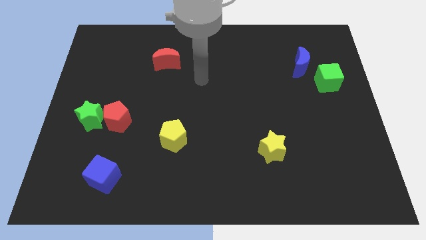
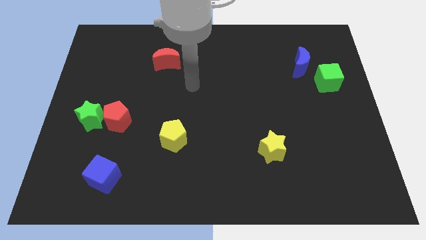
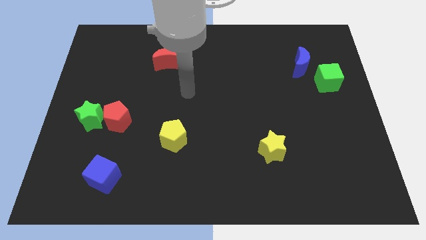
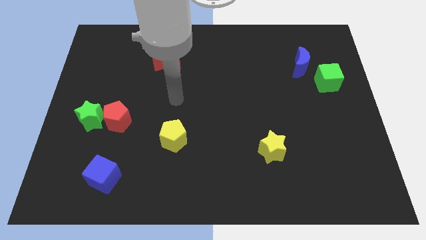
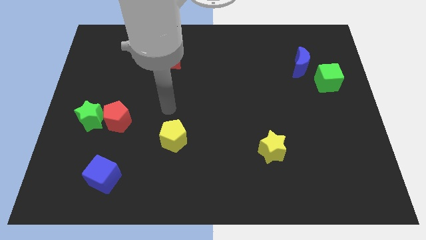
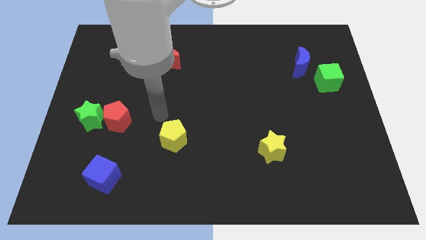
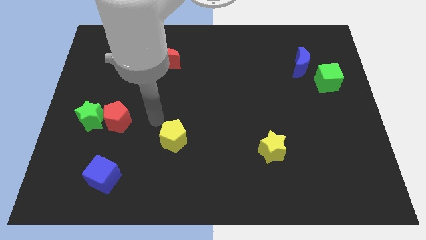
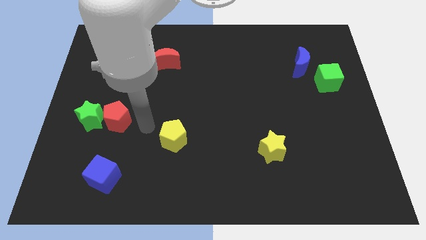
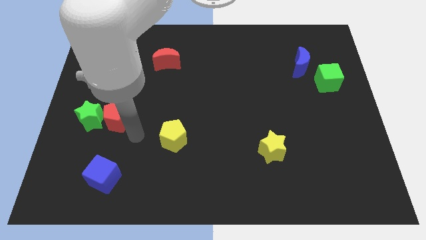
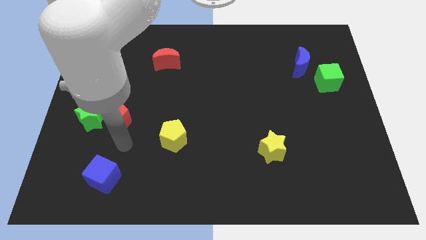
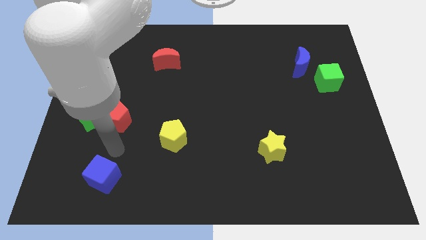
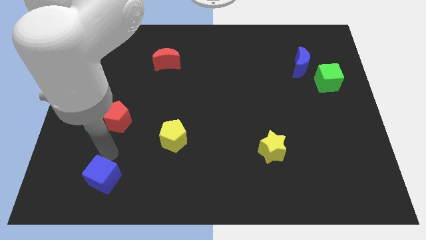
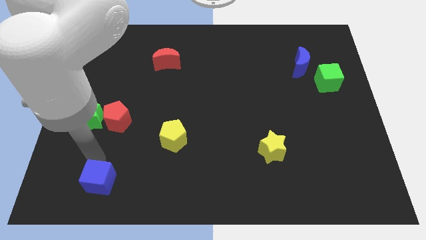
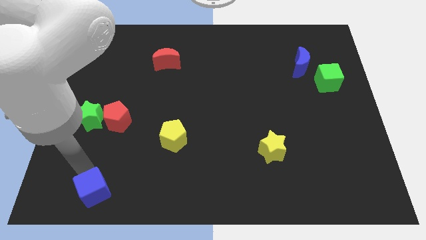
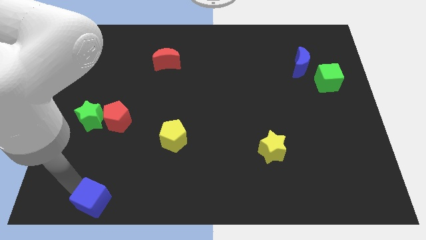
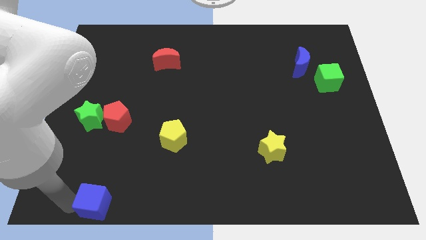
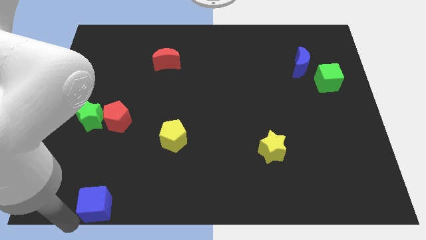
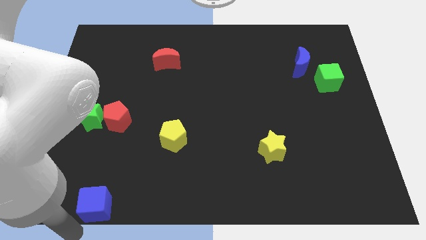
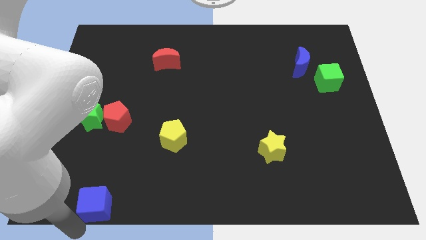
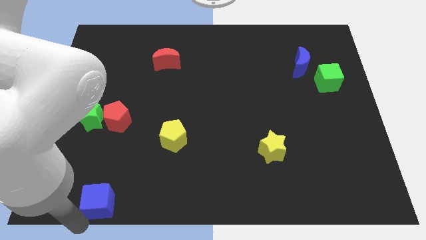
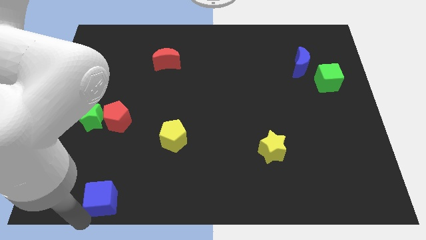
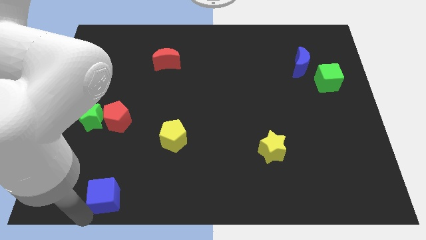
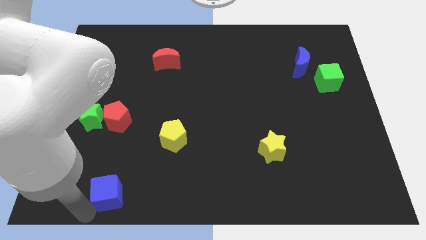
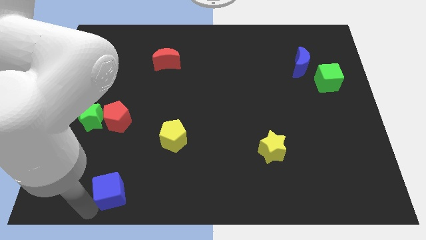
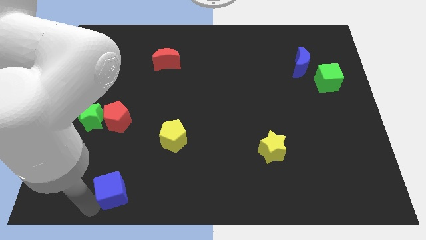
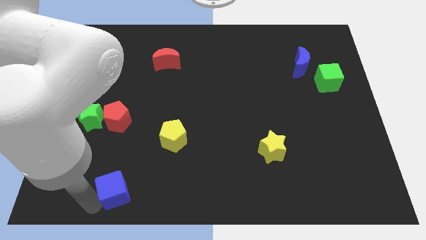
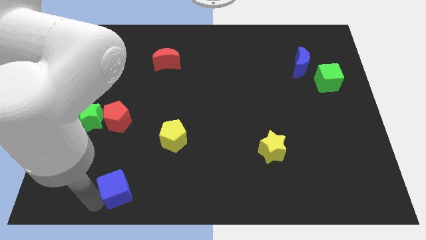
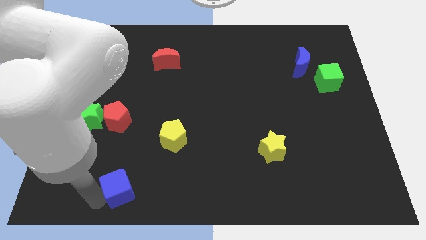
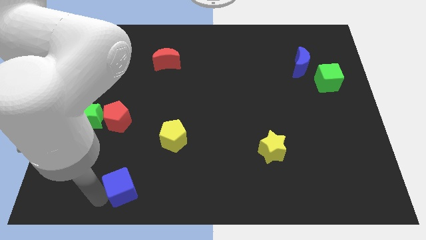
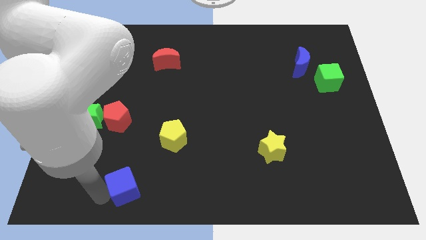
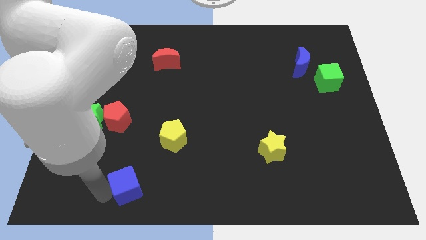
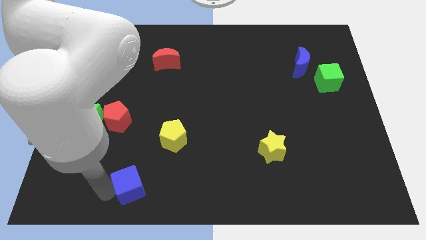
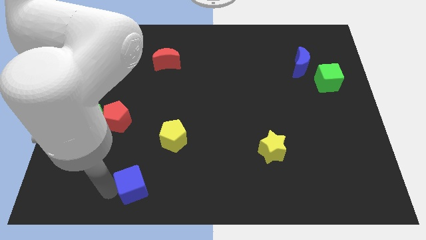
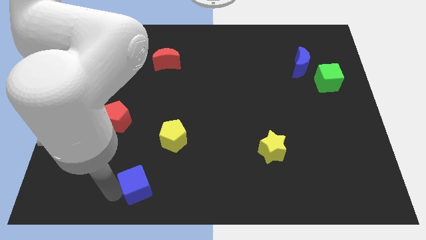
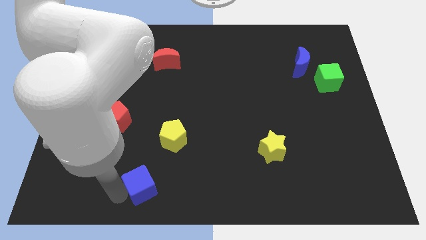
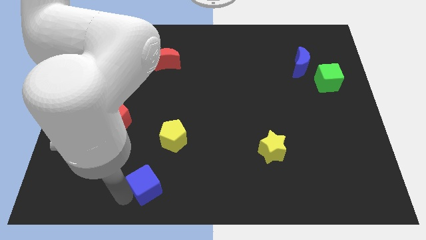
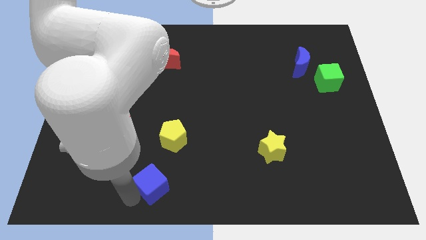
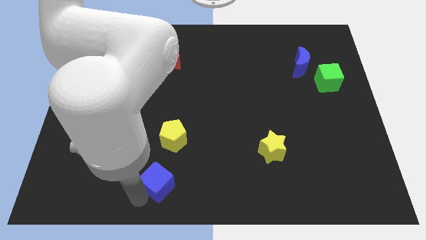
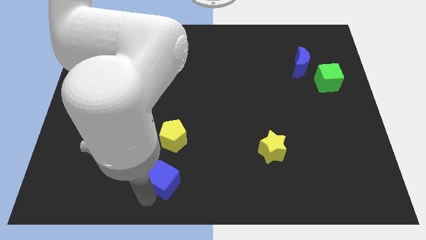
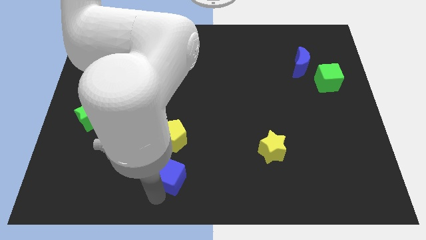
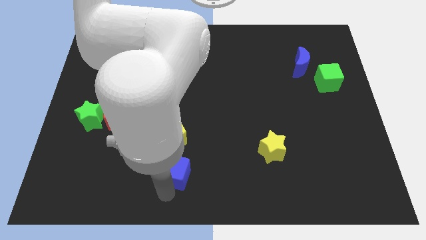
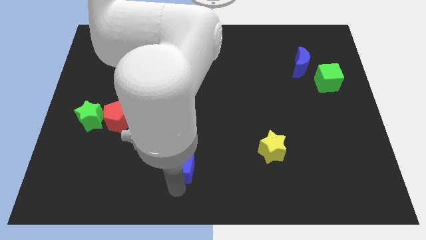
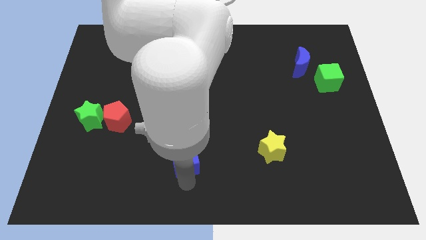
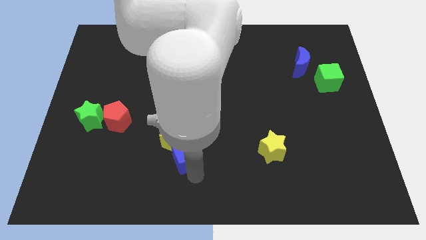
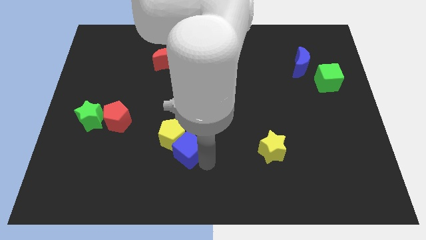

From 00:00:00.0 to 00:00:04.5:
move the blue cube to the right side of the yellow pentagon

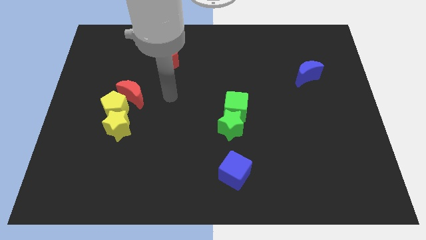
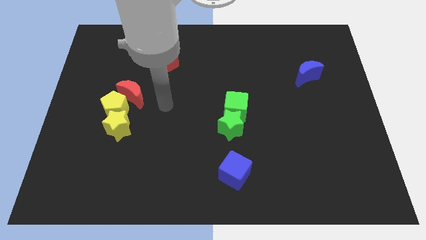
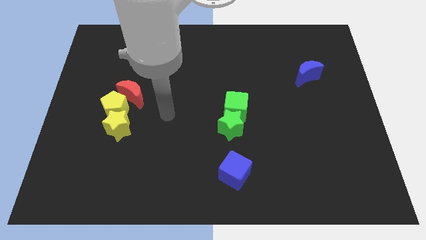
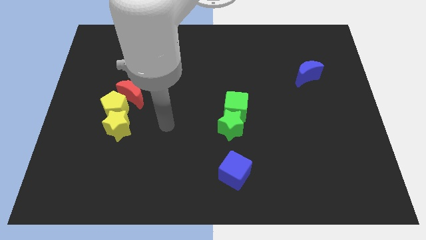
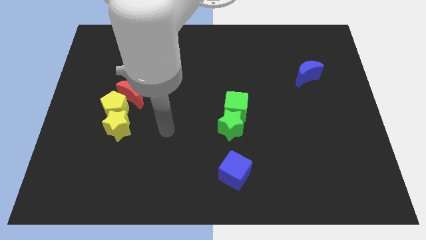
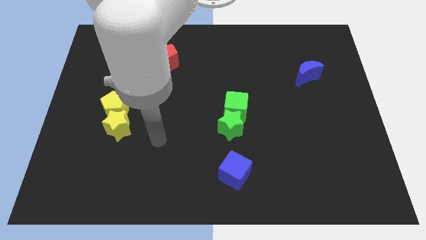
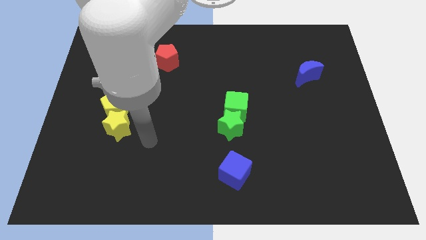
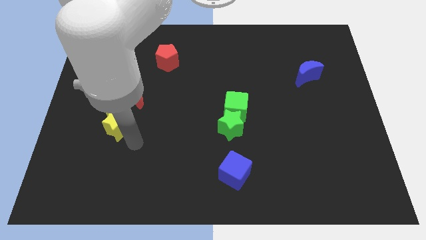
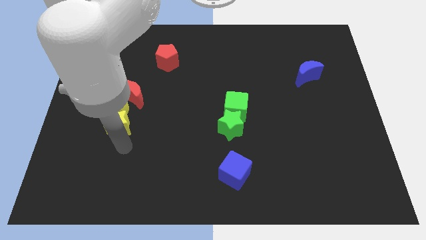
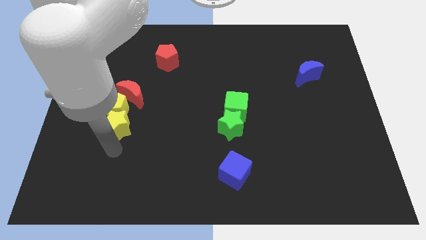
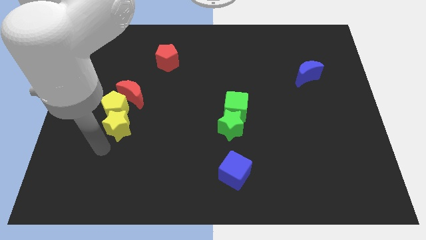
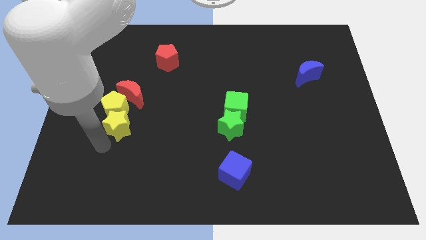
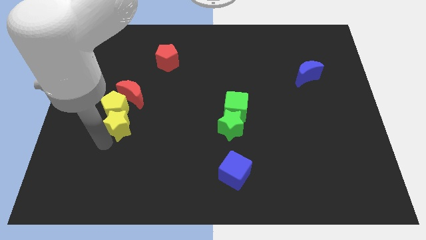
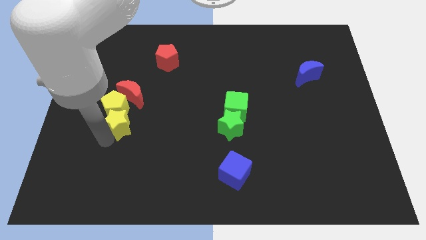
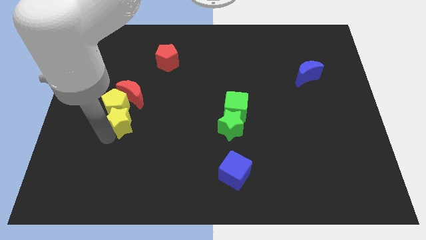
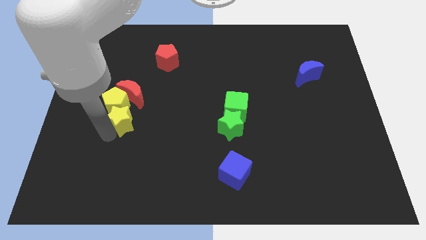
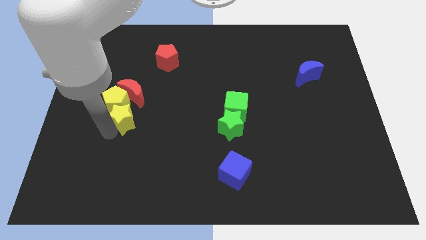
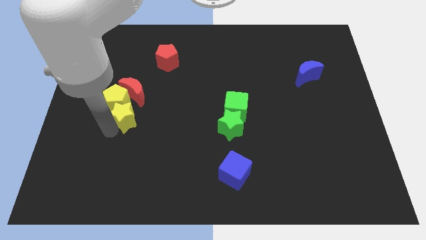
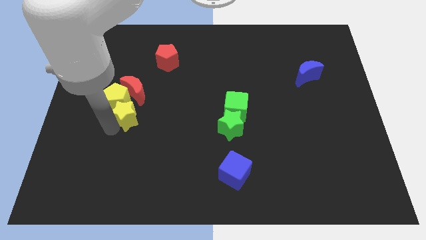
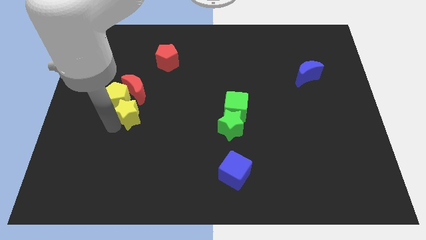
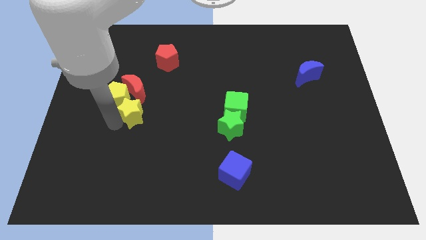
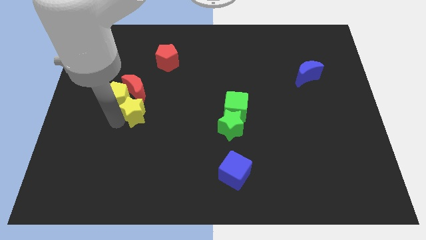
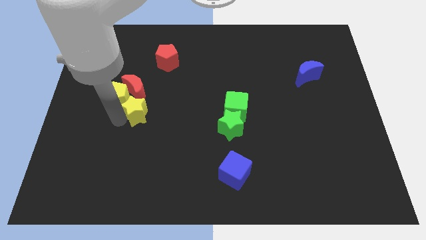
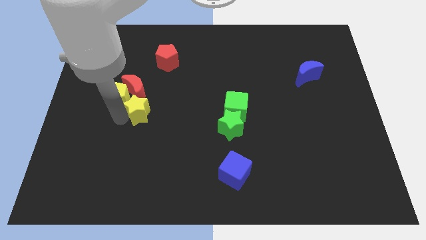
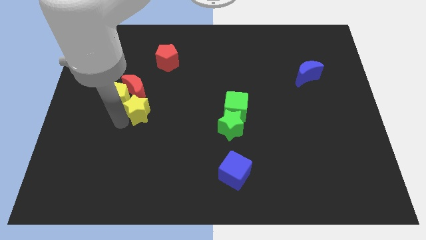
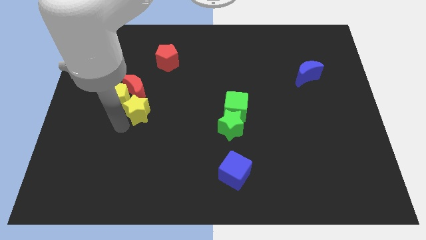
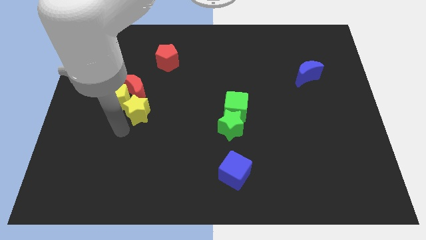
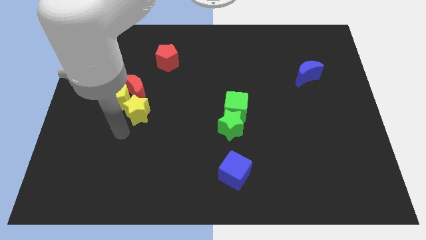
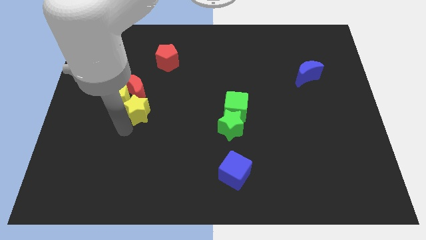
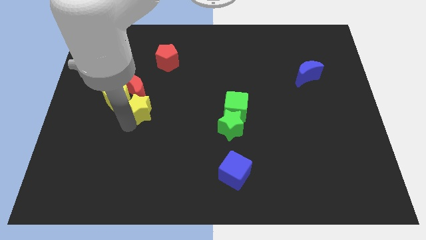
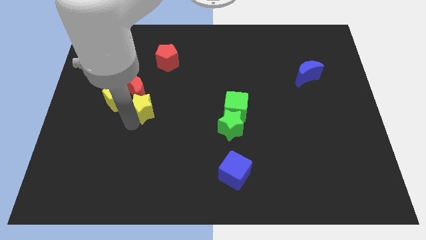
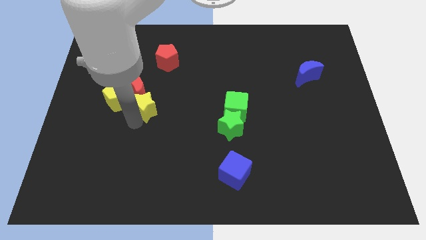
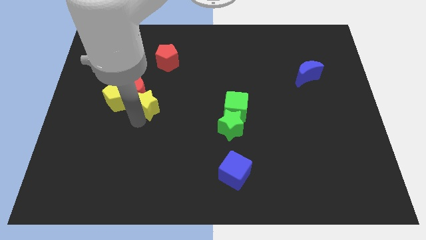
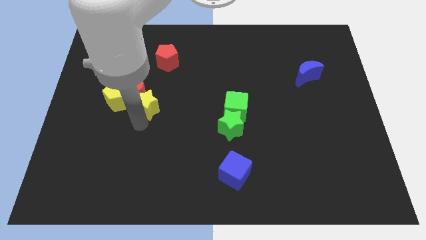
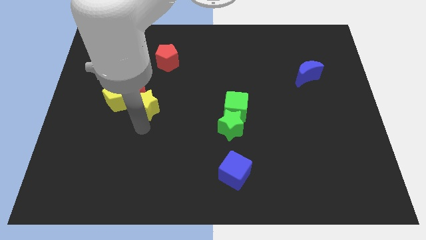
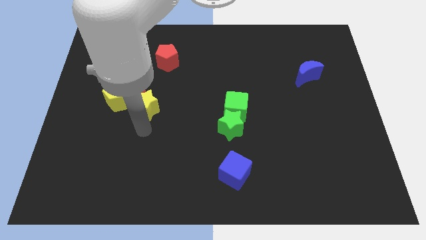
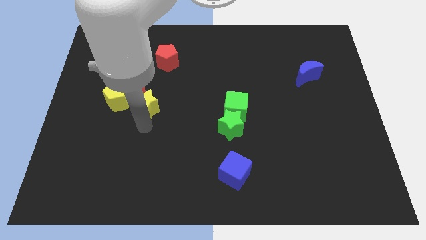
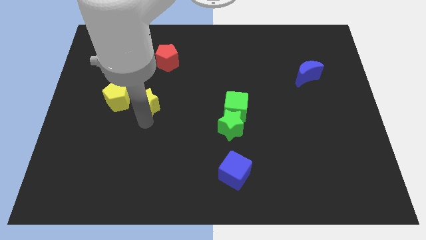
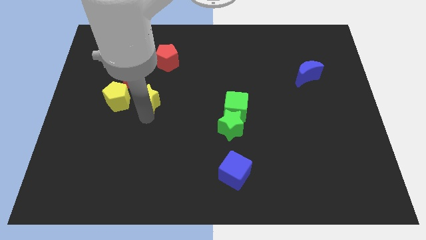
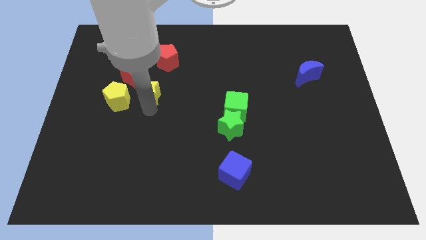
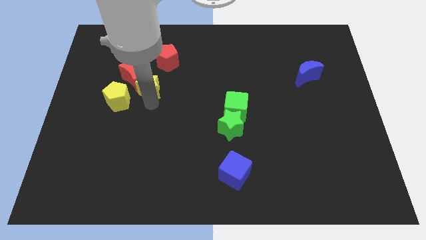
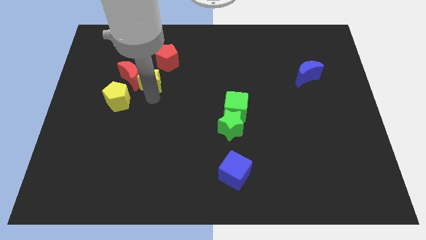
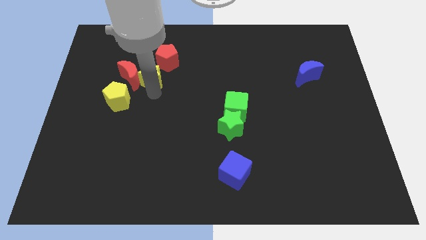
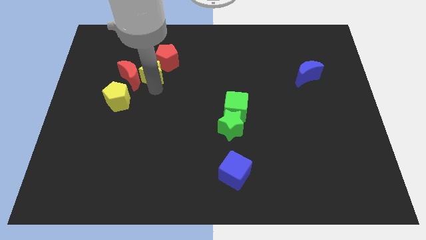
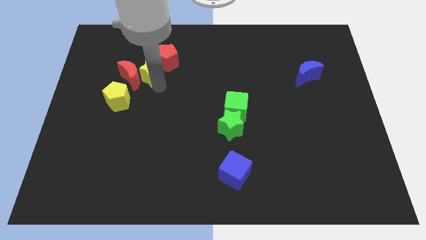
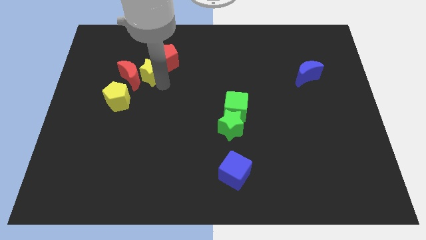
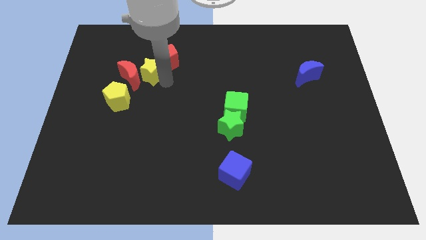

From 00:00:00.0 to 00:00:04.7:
slide the yellow star to the left of the red pentagon
